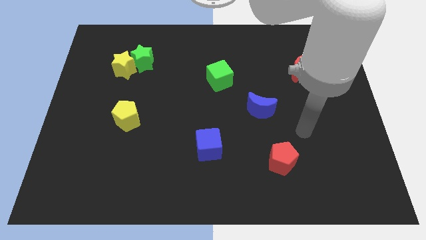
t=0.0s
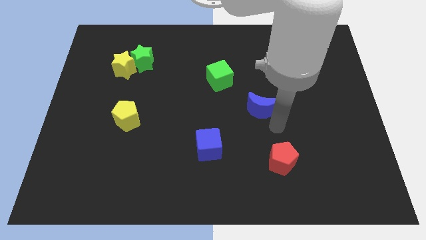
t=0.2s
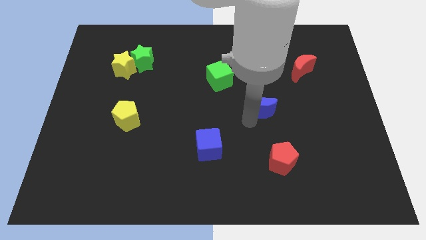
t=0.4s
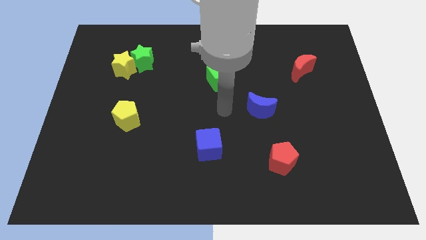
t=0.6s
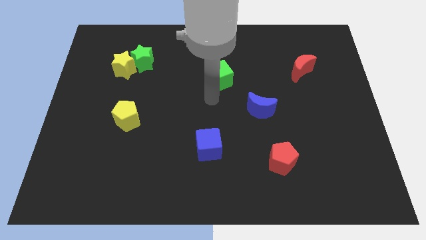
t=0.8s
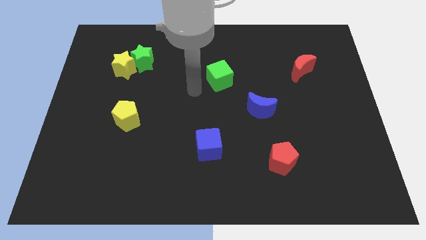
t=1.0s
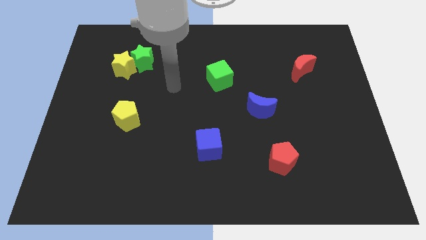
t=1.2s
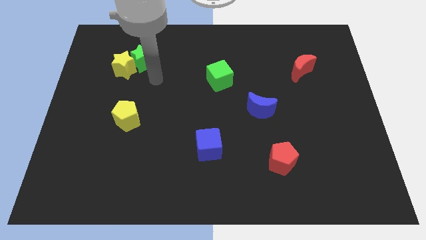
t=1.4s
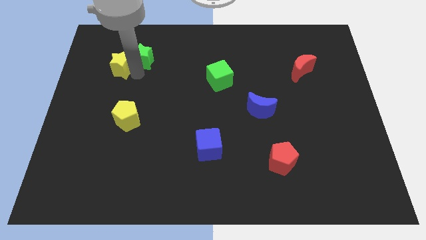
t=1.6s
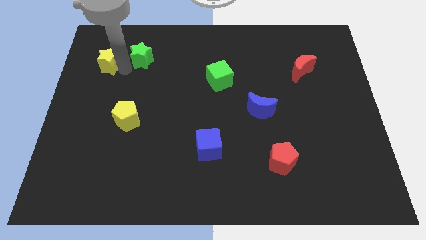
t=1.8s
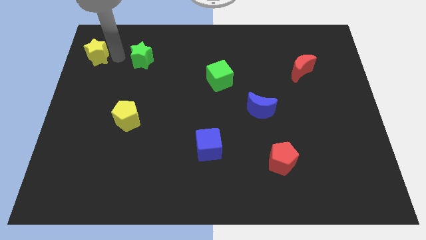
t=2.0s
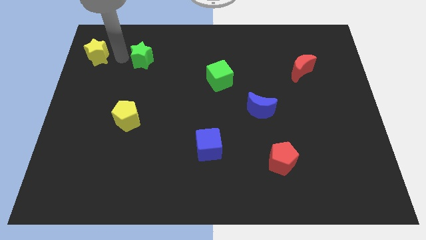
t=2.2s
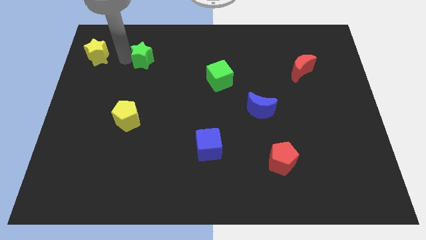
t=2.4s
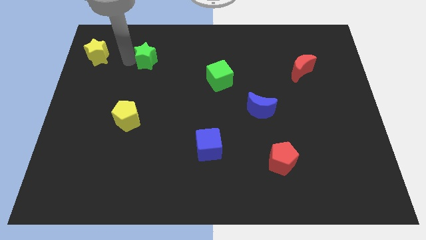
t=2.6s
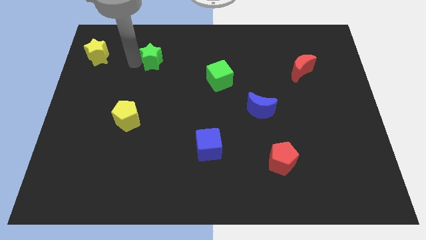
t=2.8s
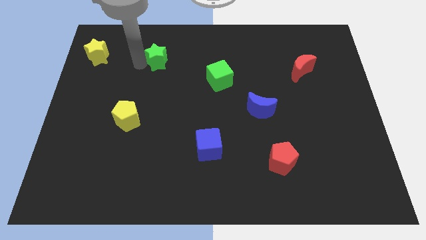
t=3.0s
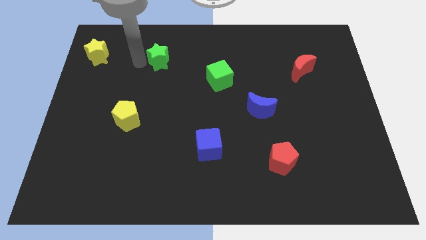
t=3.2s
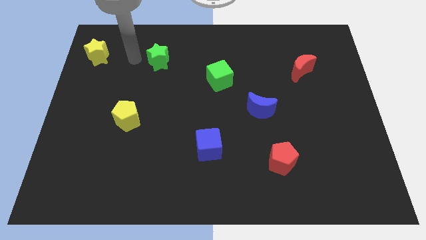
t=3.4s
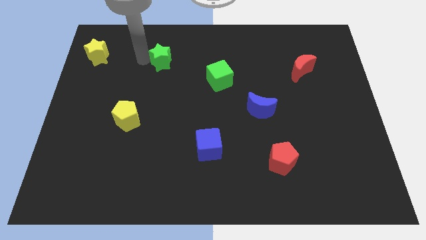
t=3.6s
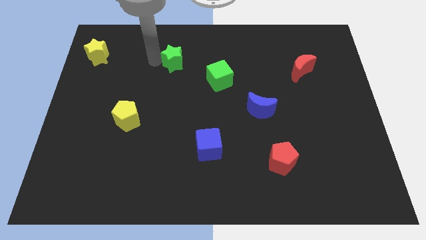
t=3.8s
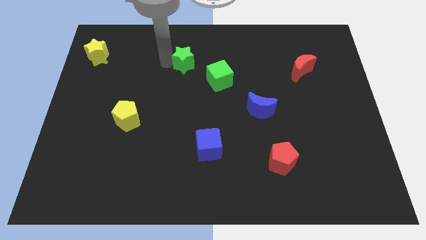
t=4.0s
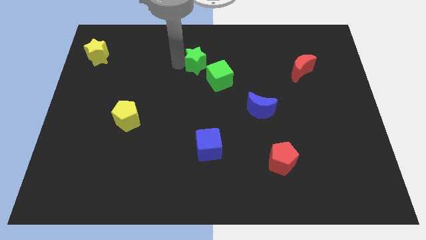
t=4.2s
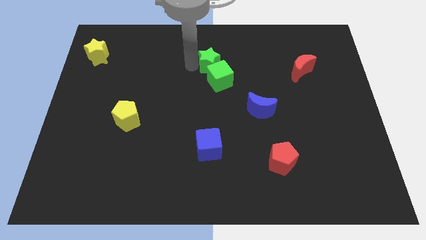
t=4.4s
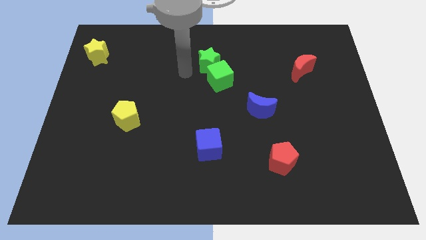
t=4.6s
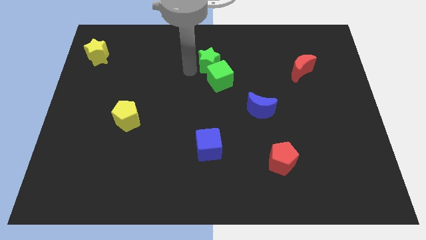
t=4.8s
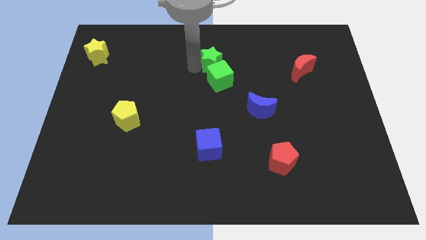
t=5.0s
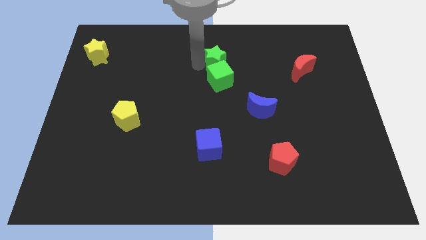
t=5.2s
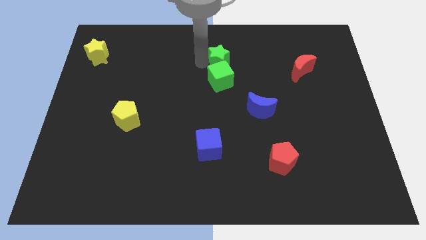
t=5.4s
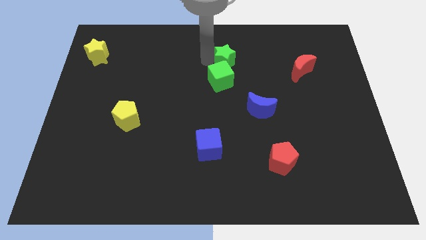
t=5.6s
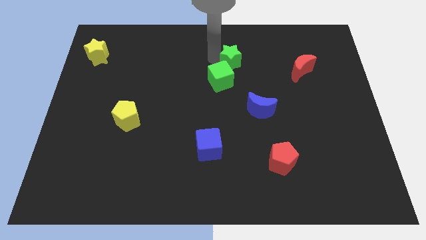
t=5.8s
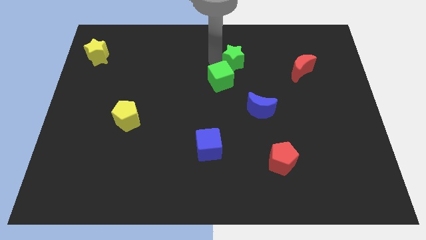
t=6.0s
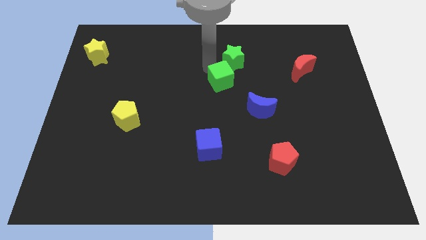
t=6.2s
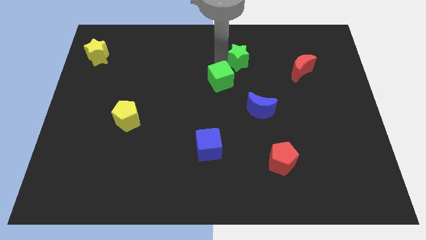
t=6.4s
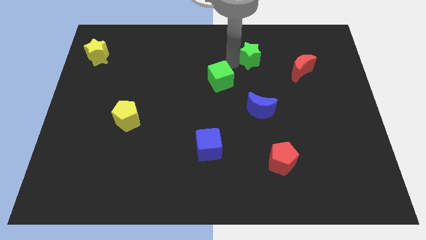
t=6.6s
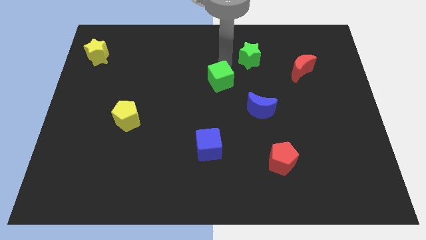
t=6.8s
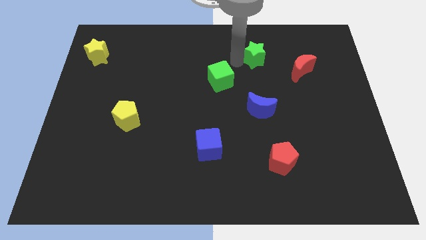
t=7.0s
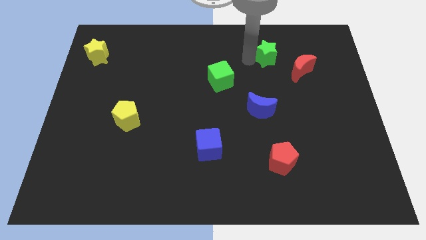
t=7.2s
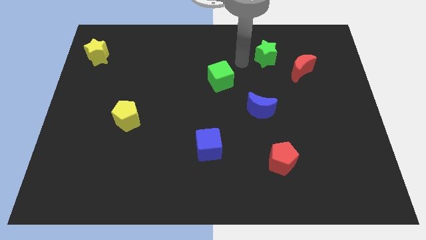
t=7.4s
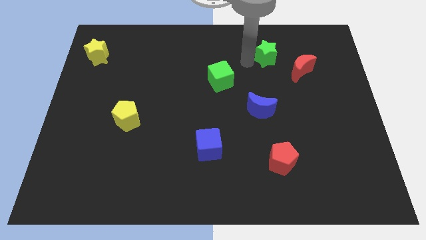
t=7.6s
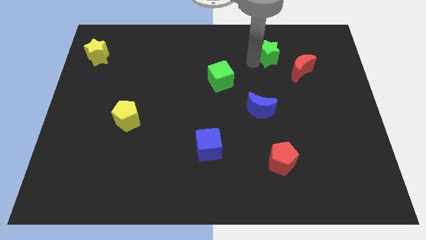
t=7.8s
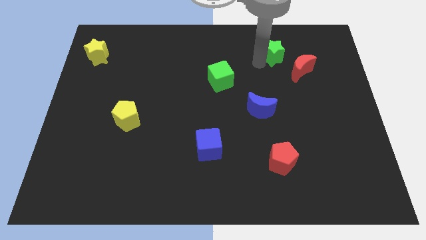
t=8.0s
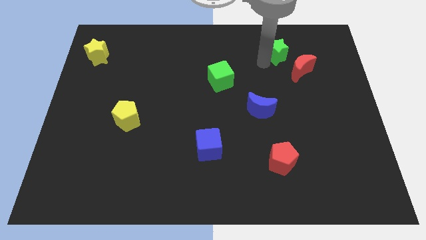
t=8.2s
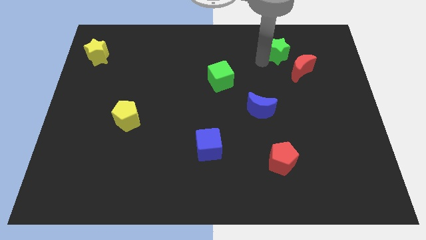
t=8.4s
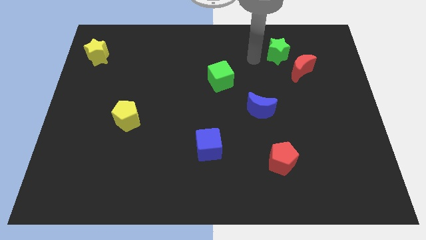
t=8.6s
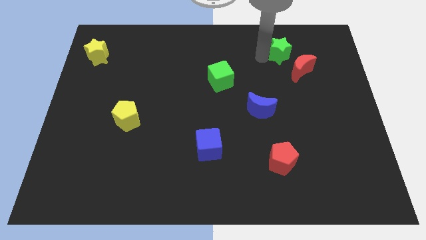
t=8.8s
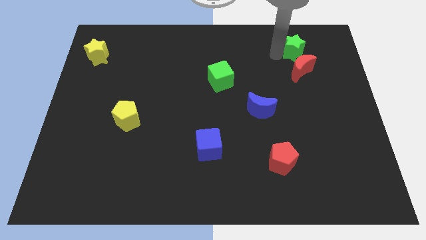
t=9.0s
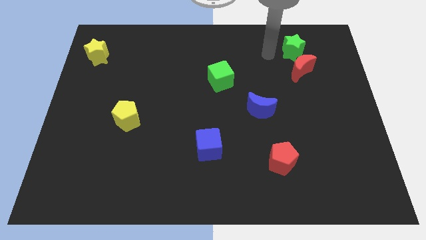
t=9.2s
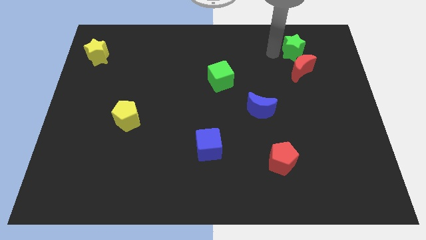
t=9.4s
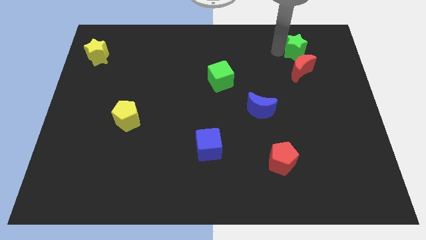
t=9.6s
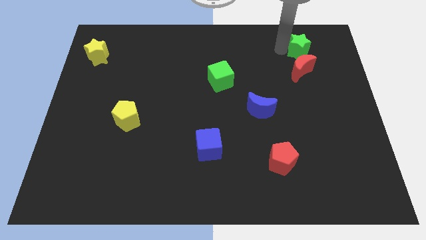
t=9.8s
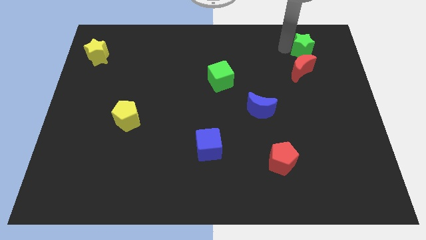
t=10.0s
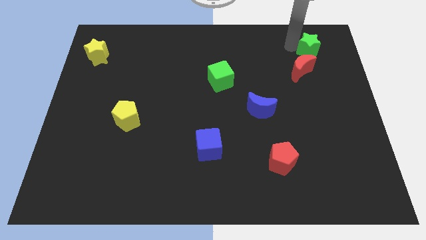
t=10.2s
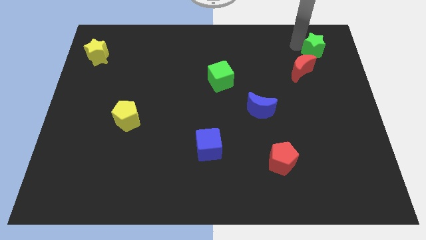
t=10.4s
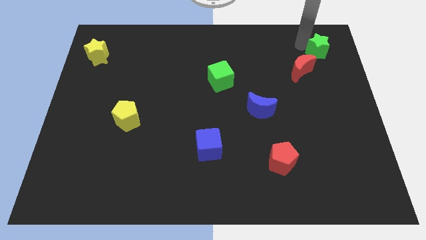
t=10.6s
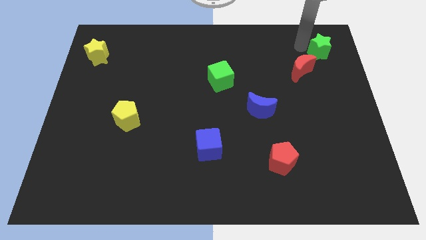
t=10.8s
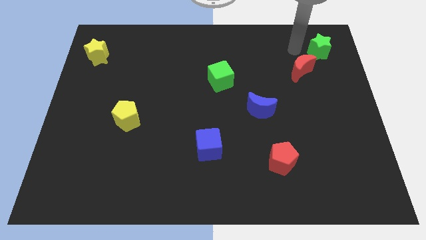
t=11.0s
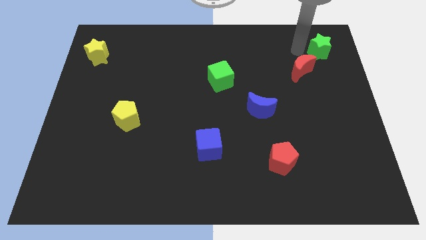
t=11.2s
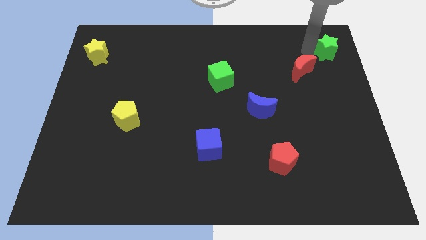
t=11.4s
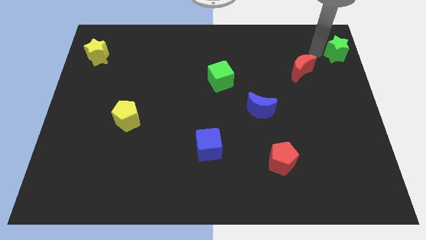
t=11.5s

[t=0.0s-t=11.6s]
move the green star to the top right of the board

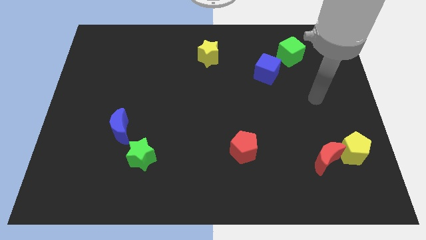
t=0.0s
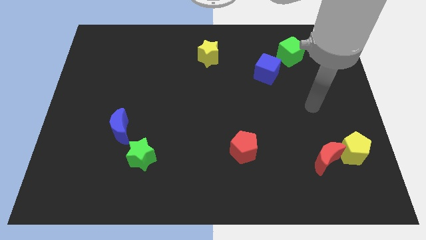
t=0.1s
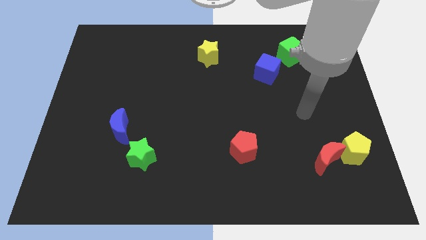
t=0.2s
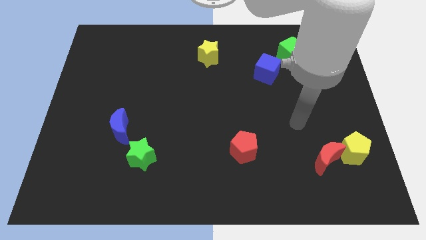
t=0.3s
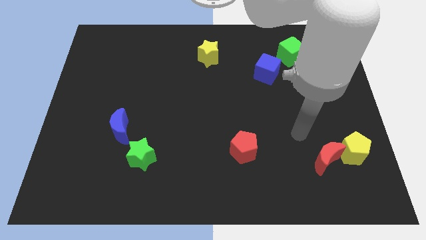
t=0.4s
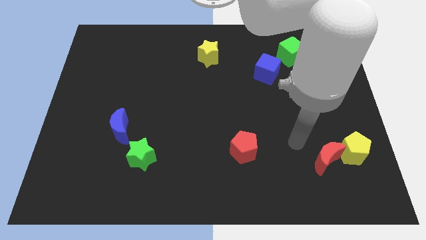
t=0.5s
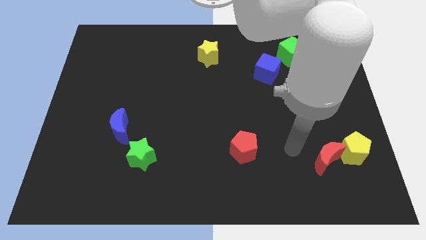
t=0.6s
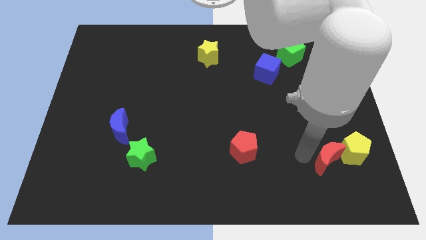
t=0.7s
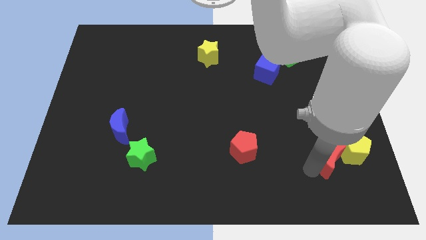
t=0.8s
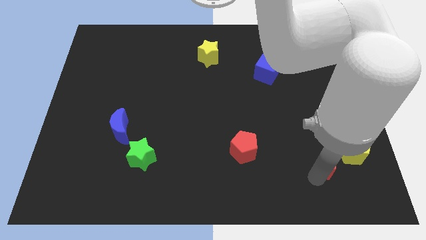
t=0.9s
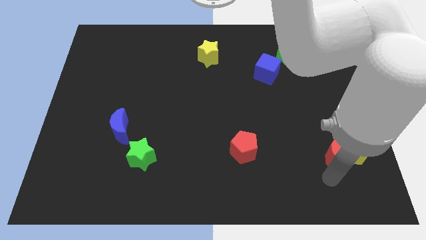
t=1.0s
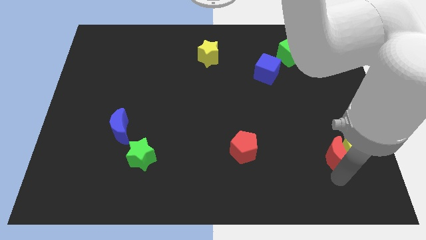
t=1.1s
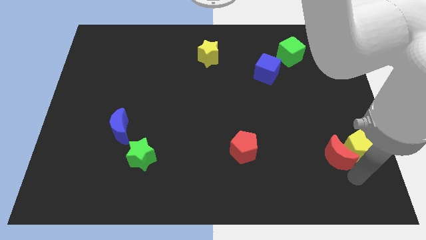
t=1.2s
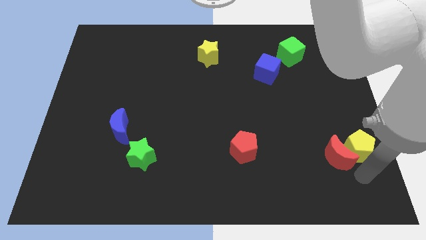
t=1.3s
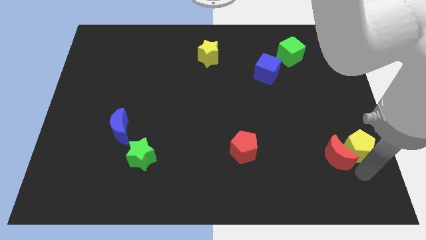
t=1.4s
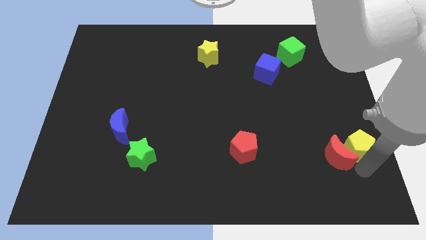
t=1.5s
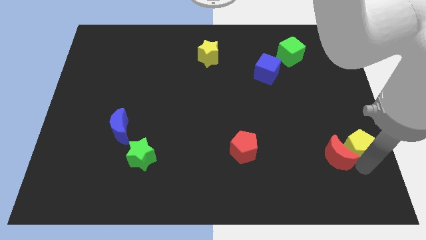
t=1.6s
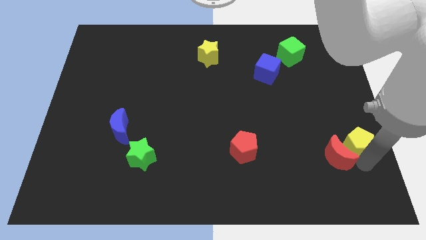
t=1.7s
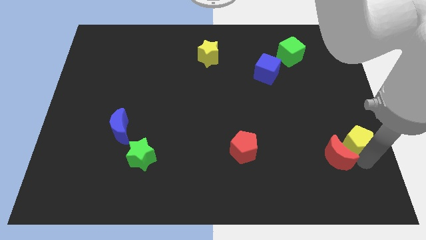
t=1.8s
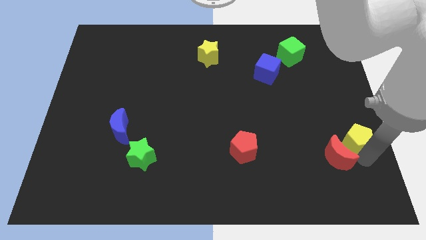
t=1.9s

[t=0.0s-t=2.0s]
push the yellow pentagon to the center right
